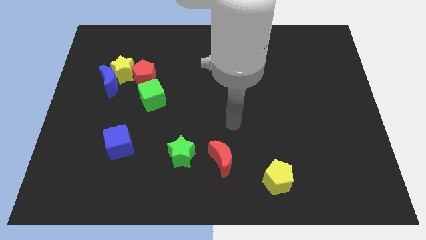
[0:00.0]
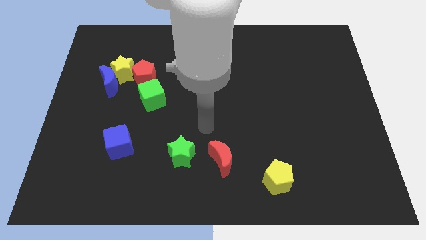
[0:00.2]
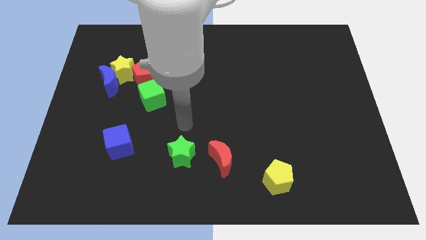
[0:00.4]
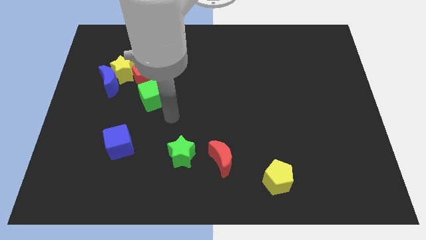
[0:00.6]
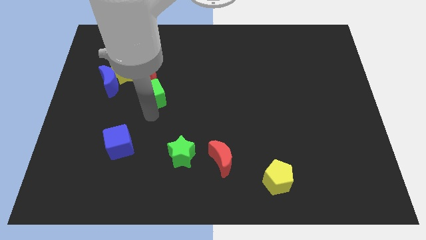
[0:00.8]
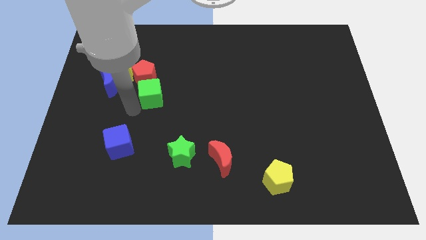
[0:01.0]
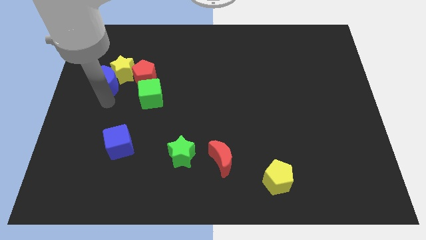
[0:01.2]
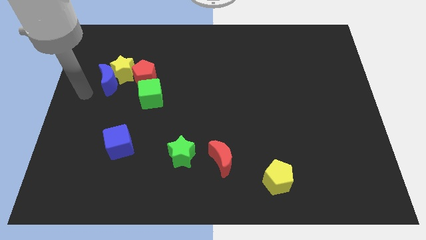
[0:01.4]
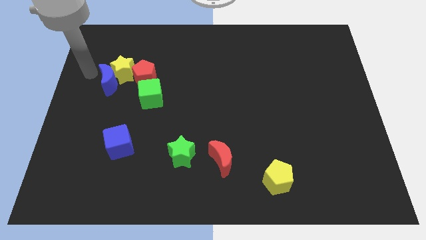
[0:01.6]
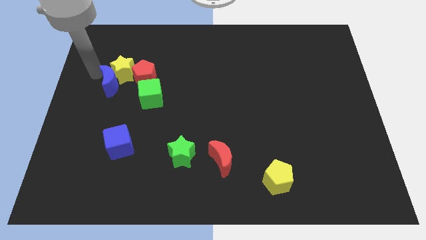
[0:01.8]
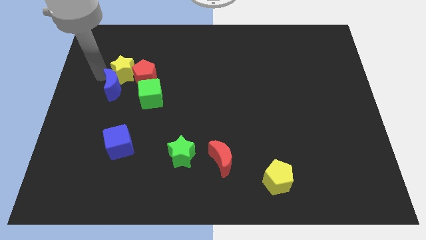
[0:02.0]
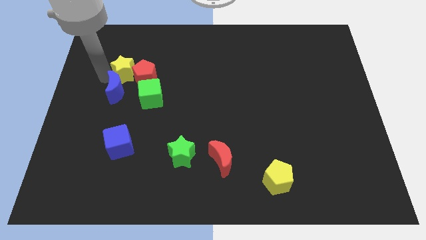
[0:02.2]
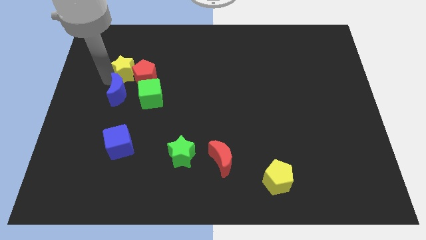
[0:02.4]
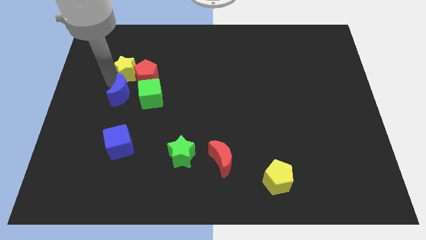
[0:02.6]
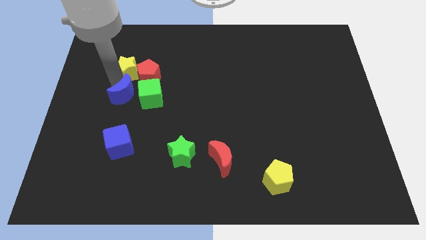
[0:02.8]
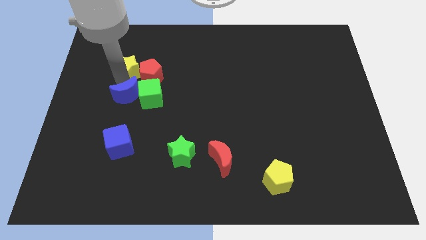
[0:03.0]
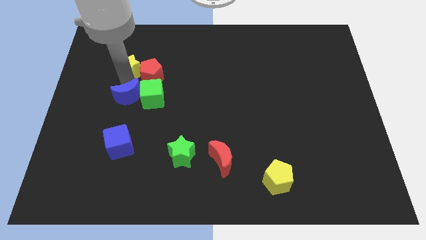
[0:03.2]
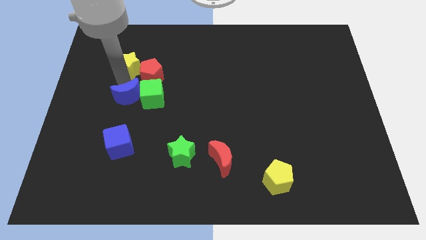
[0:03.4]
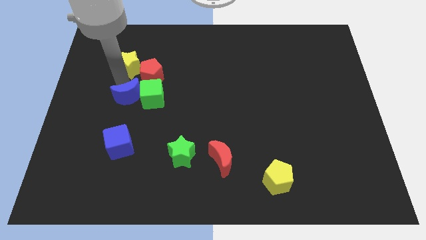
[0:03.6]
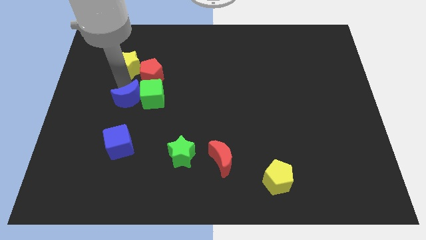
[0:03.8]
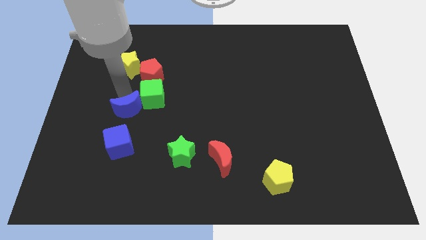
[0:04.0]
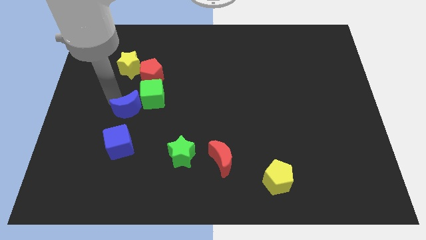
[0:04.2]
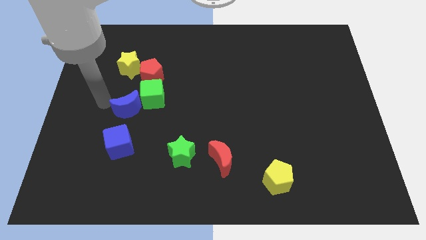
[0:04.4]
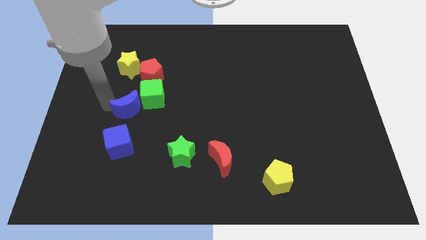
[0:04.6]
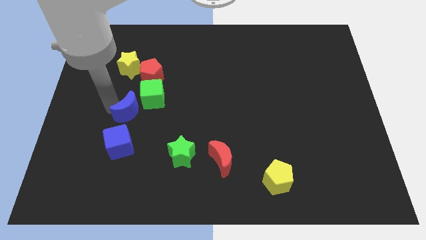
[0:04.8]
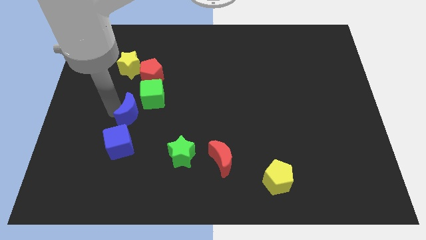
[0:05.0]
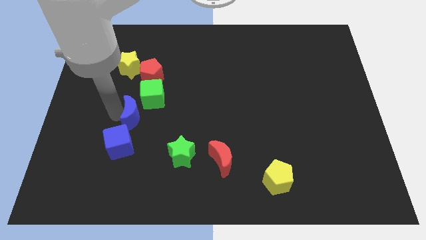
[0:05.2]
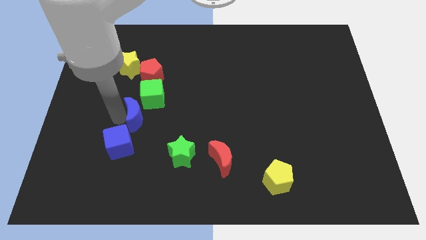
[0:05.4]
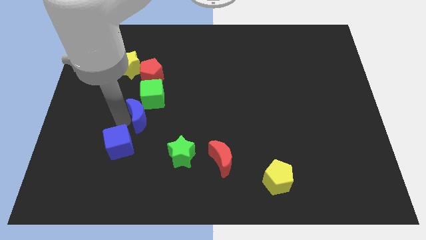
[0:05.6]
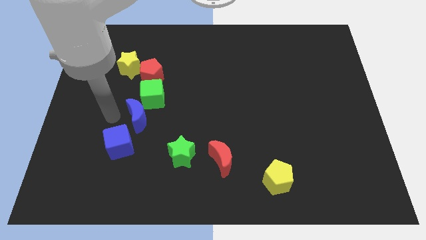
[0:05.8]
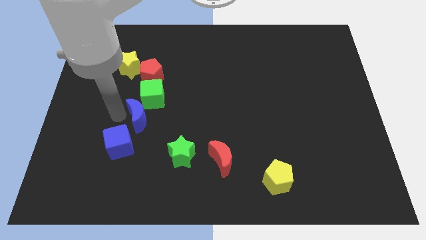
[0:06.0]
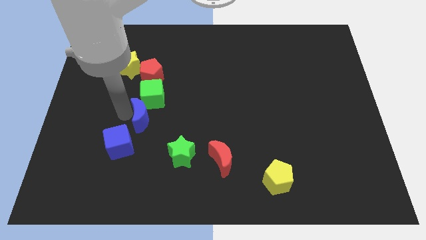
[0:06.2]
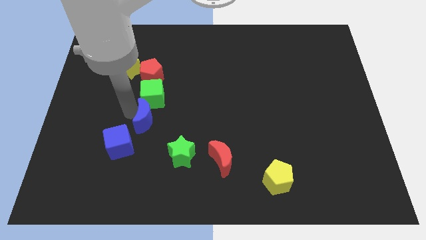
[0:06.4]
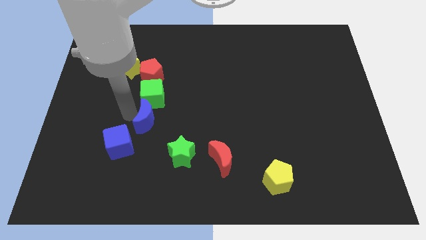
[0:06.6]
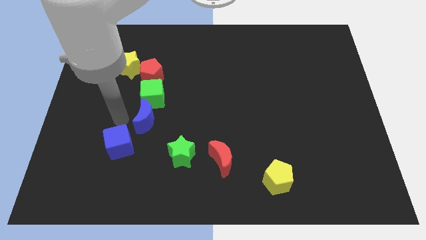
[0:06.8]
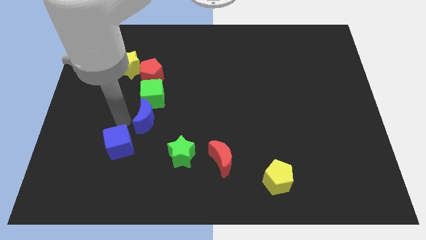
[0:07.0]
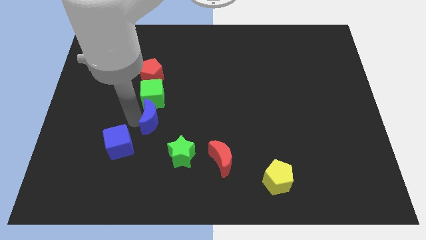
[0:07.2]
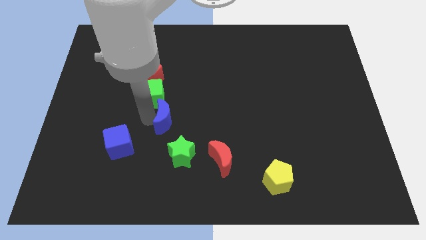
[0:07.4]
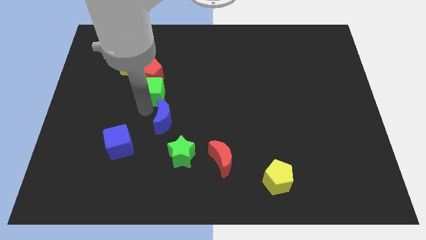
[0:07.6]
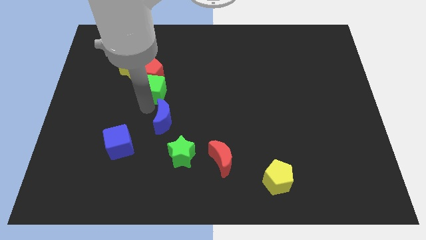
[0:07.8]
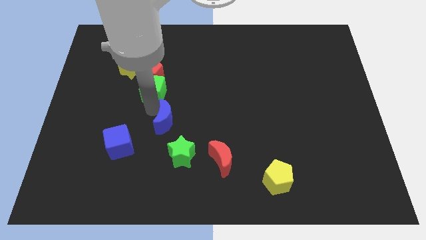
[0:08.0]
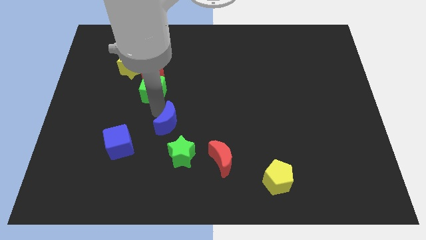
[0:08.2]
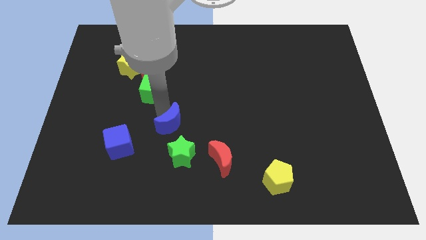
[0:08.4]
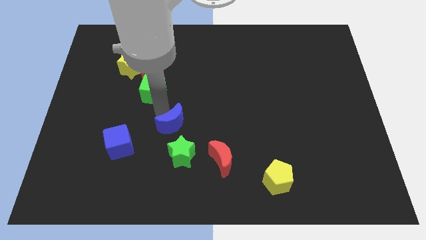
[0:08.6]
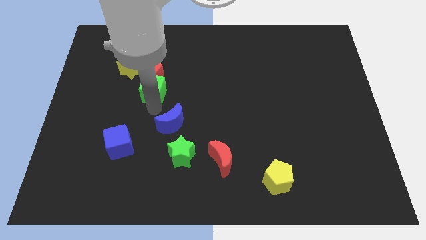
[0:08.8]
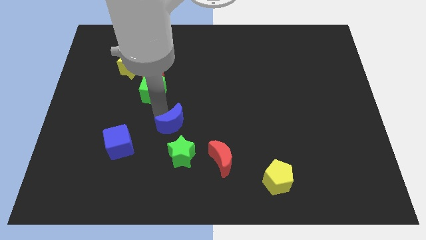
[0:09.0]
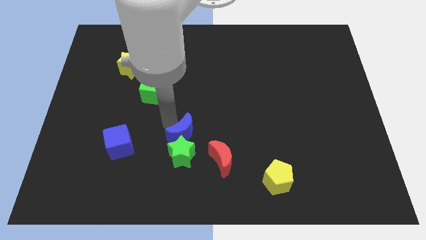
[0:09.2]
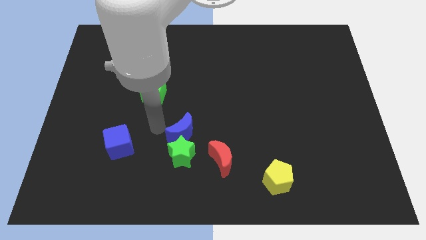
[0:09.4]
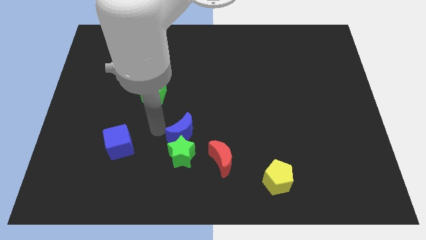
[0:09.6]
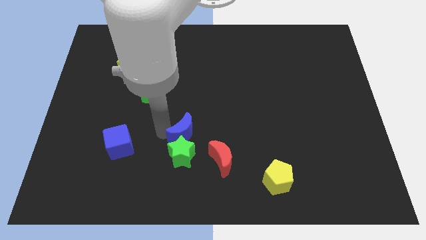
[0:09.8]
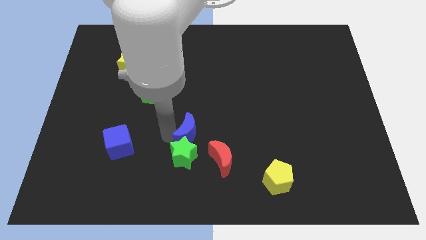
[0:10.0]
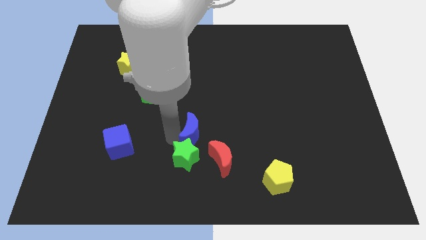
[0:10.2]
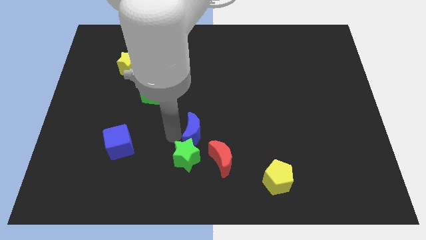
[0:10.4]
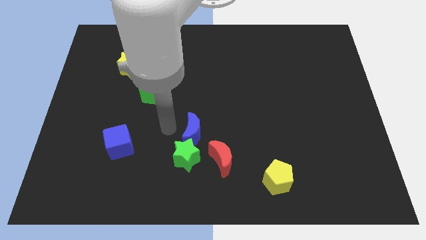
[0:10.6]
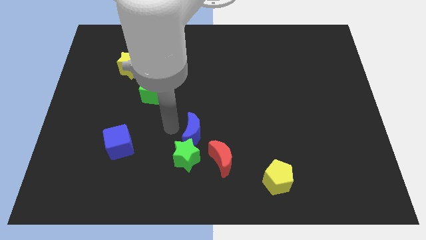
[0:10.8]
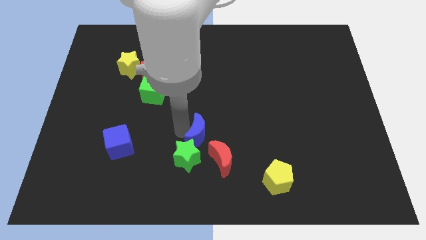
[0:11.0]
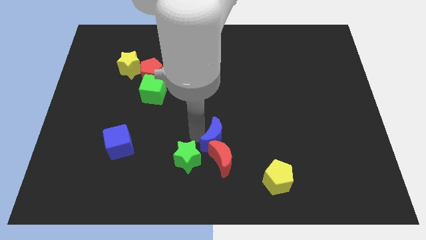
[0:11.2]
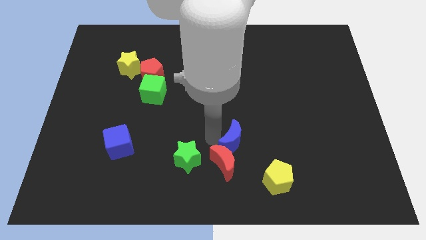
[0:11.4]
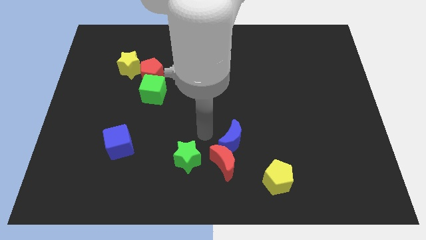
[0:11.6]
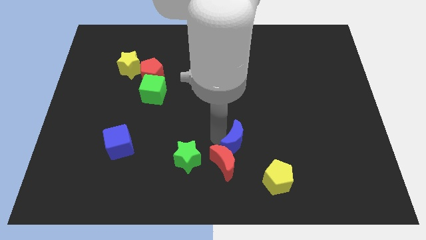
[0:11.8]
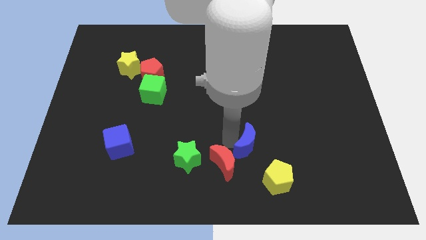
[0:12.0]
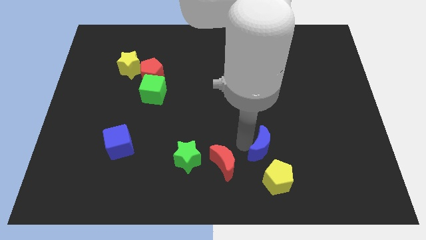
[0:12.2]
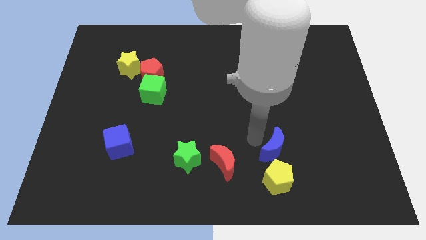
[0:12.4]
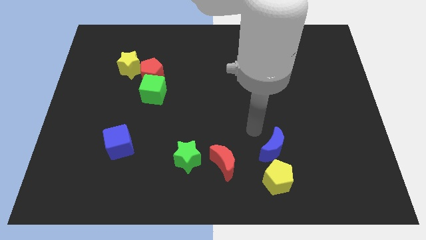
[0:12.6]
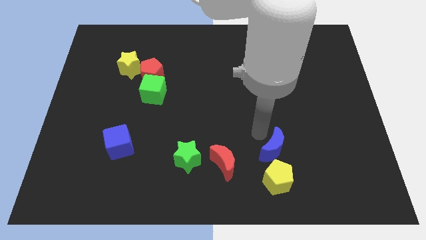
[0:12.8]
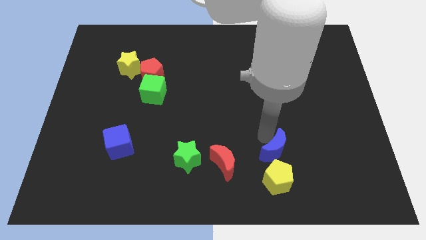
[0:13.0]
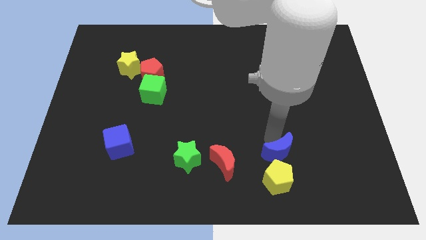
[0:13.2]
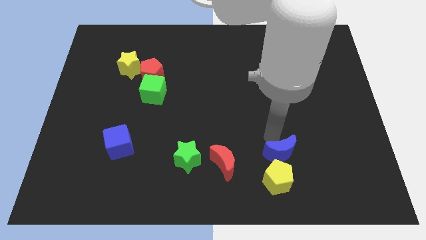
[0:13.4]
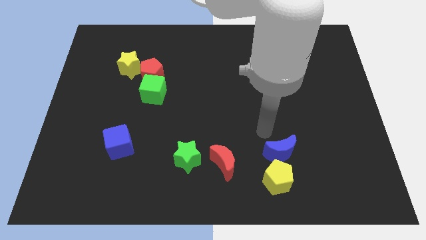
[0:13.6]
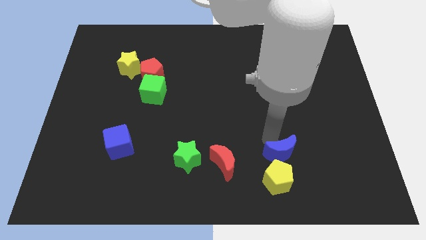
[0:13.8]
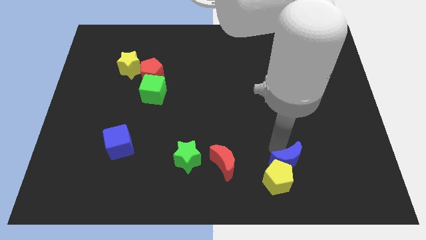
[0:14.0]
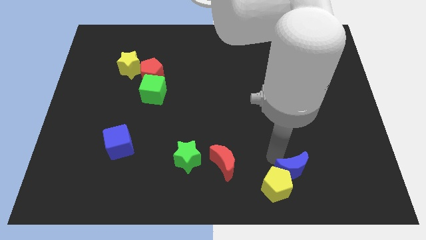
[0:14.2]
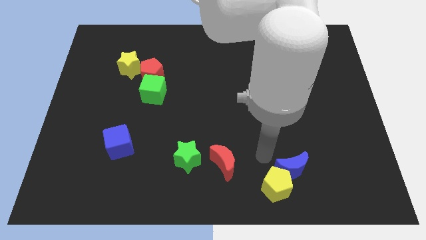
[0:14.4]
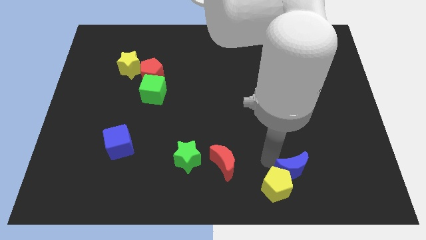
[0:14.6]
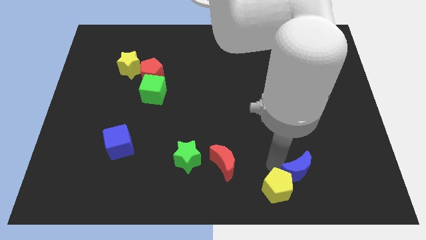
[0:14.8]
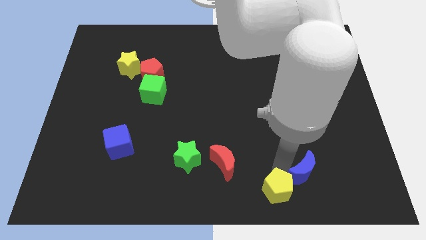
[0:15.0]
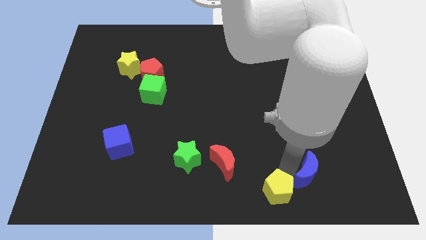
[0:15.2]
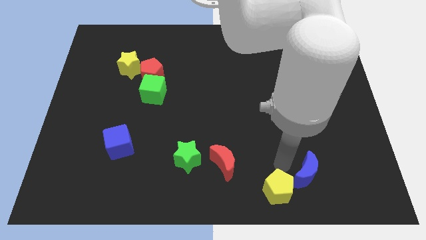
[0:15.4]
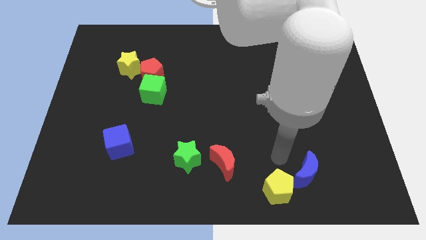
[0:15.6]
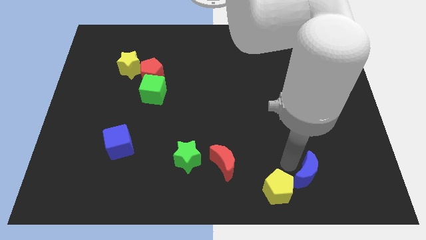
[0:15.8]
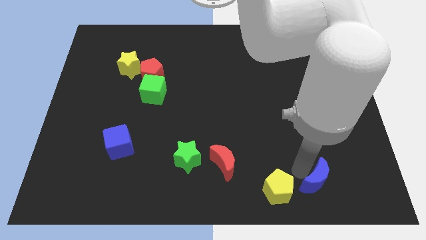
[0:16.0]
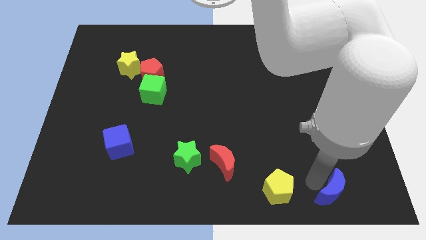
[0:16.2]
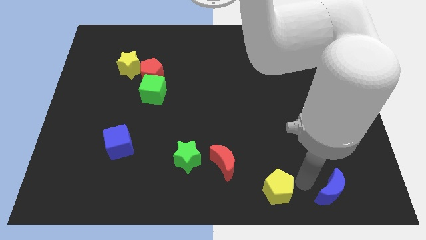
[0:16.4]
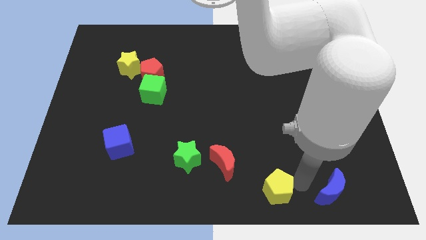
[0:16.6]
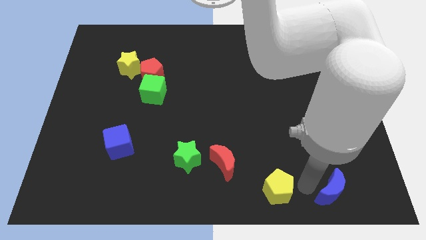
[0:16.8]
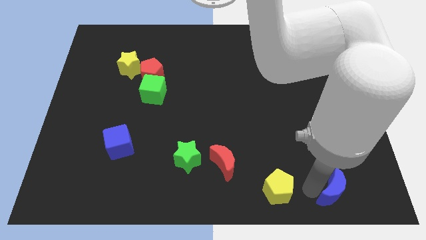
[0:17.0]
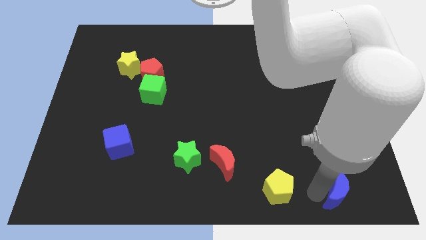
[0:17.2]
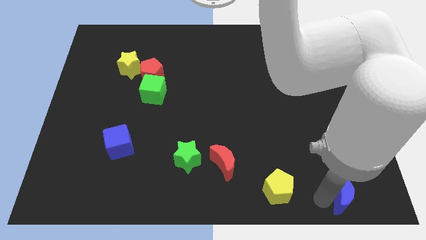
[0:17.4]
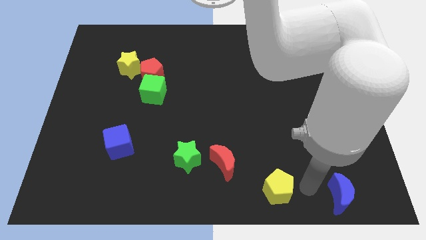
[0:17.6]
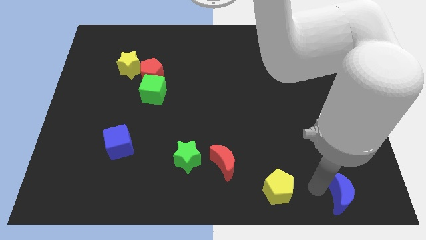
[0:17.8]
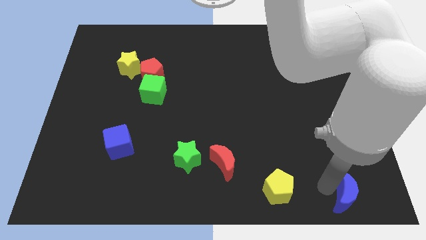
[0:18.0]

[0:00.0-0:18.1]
put the blue moon to the bottom right
